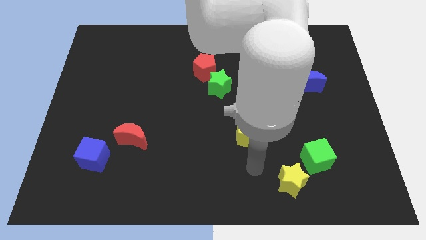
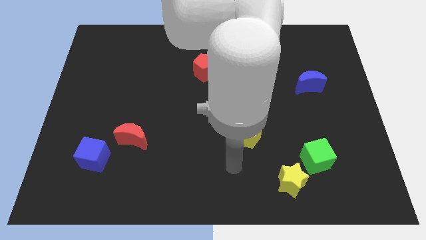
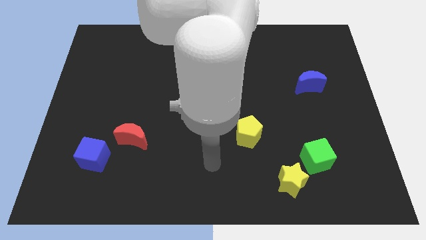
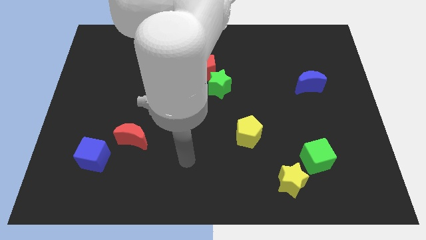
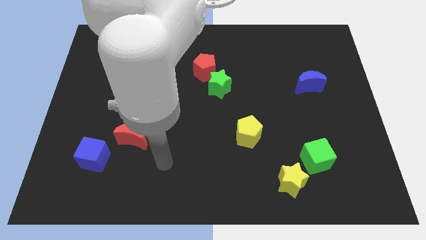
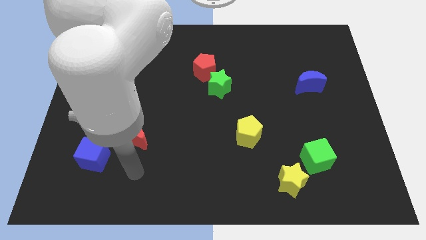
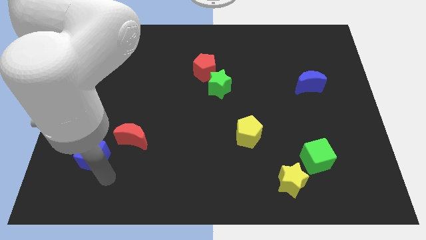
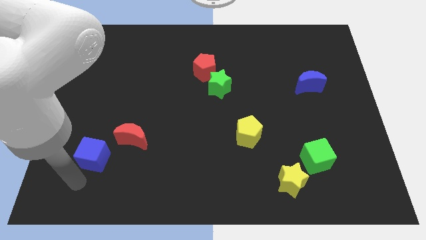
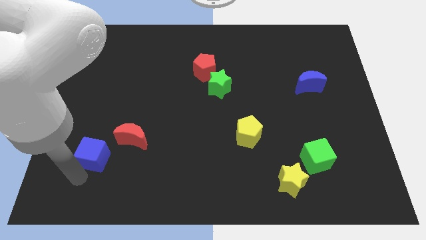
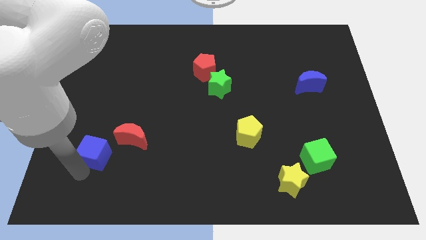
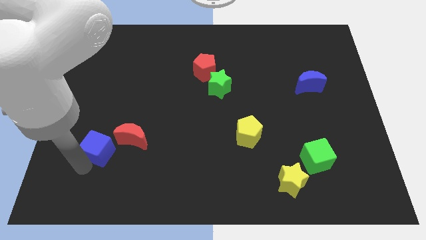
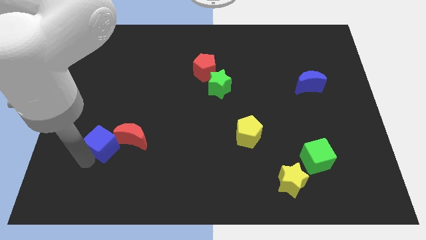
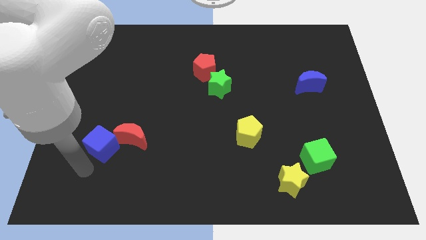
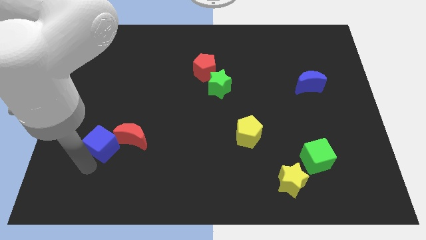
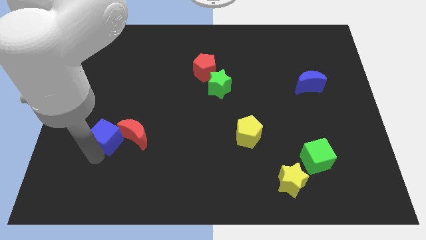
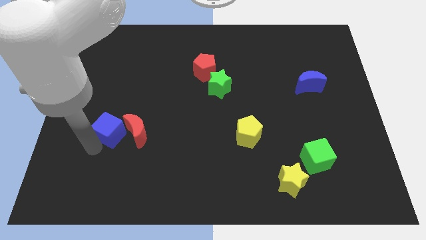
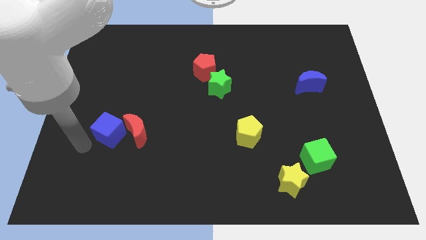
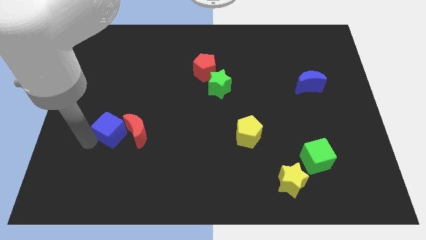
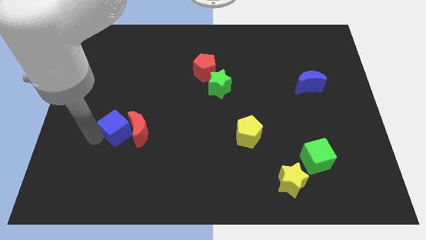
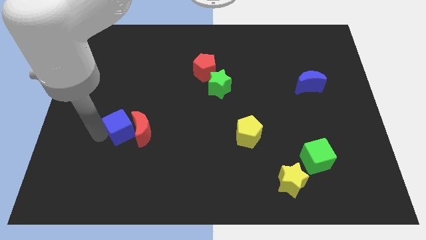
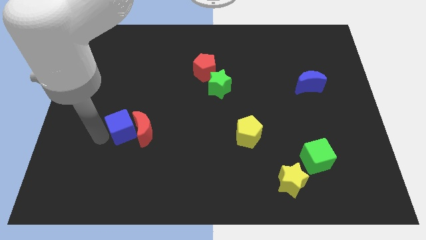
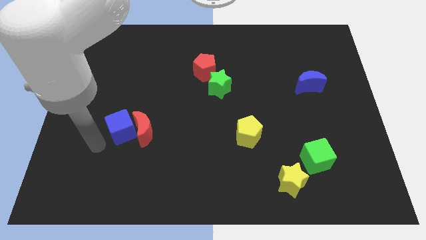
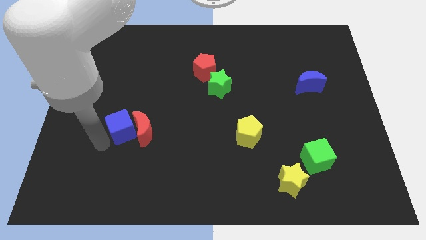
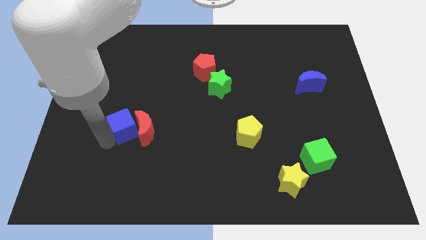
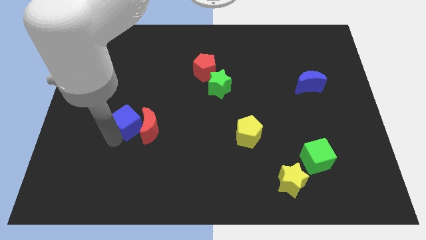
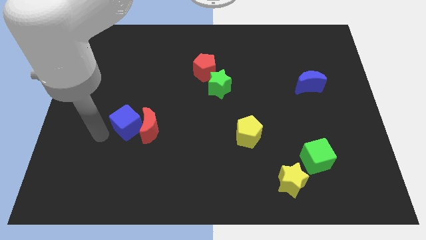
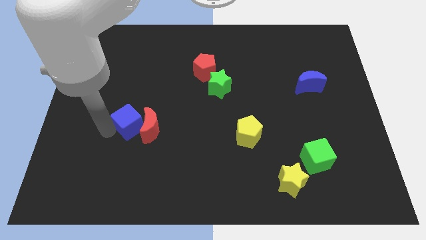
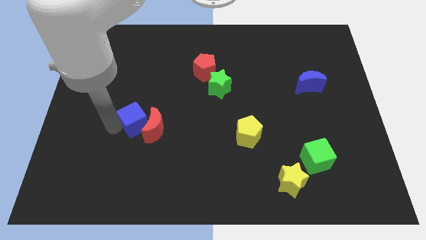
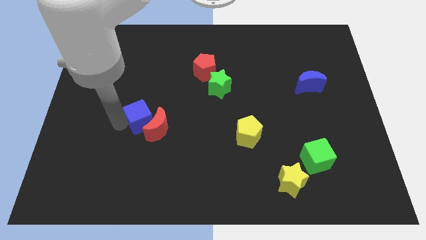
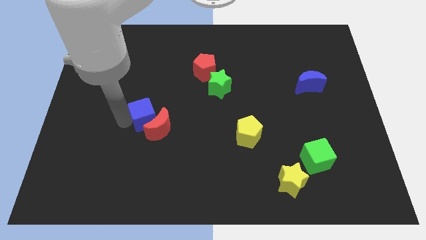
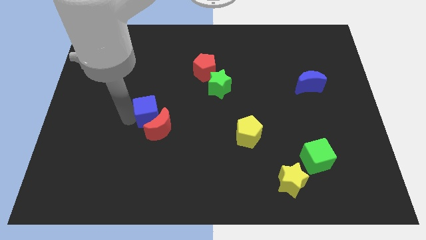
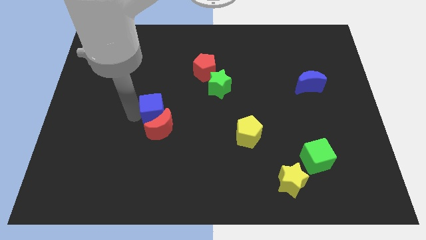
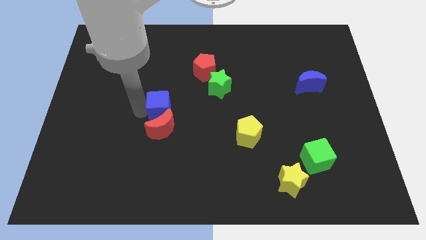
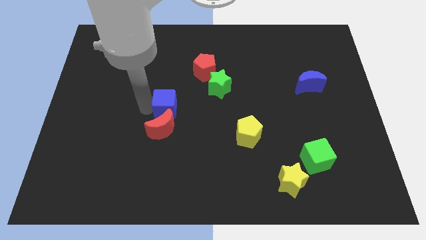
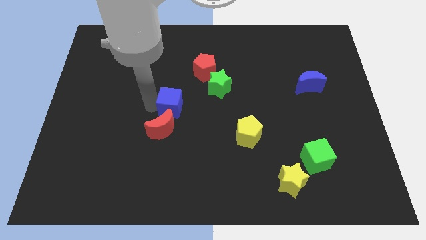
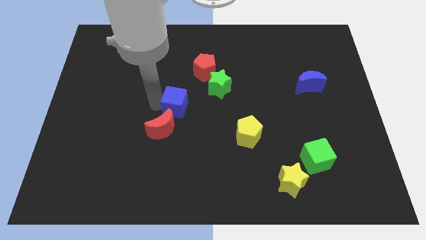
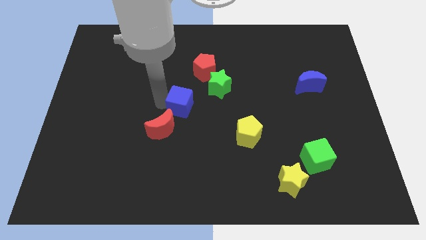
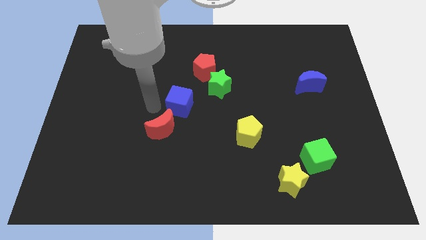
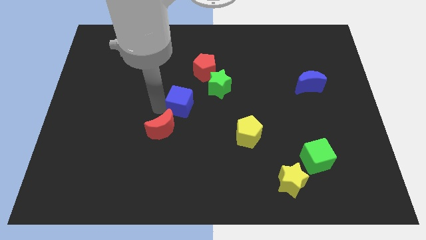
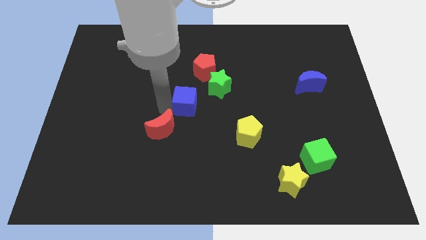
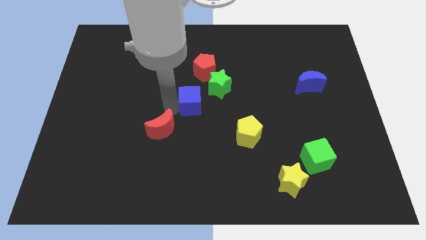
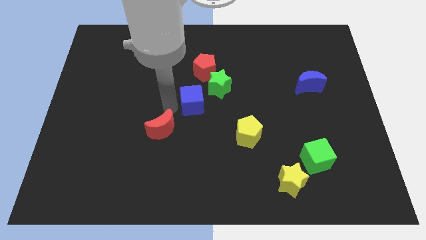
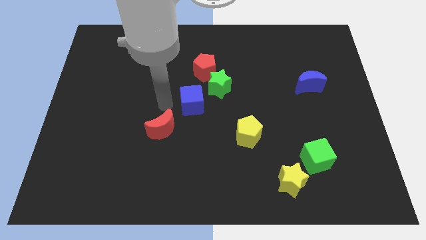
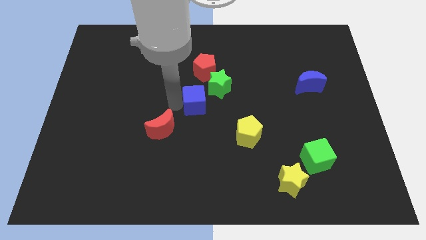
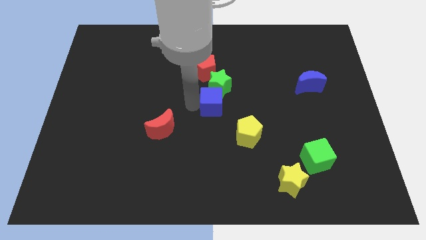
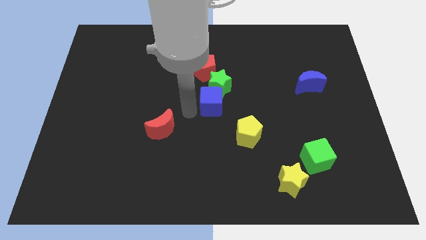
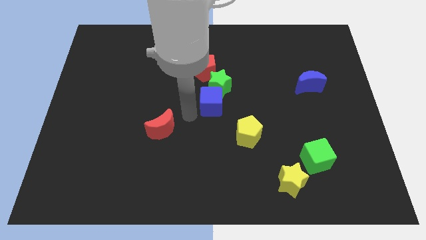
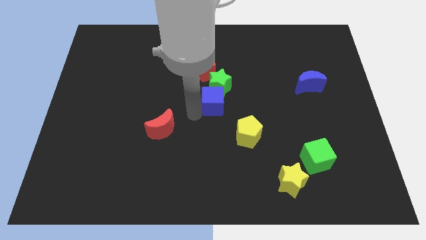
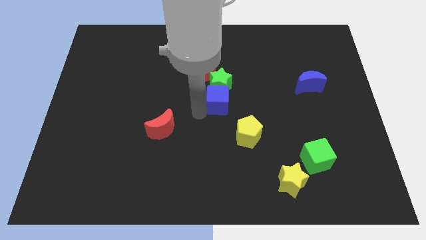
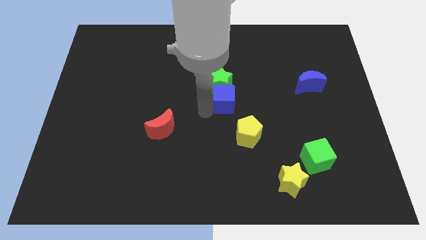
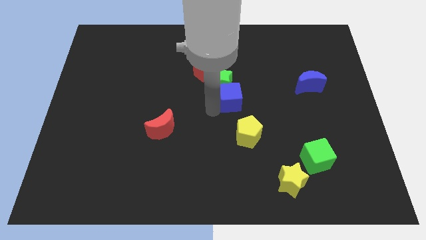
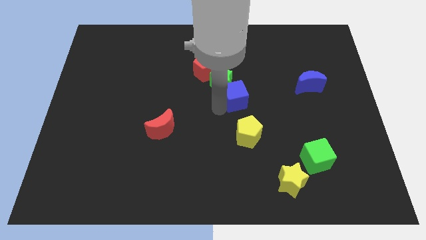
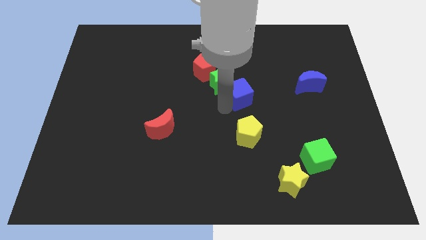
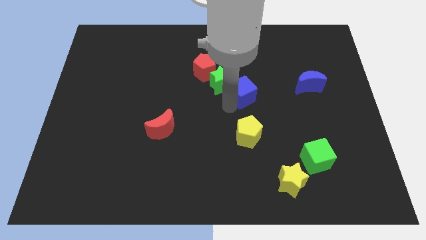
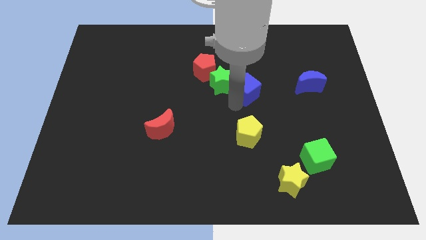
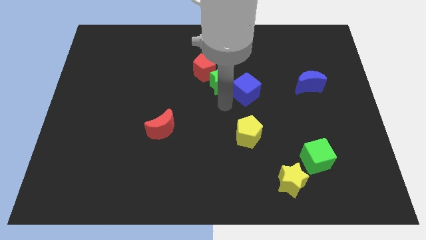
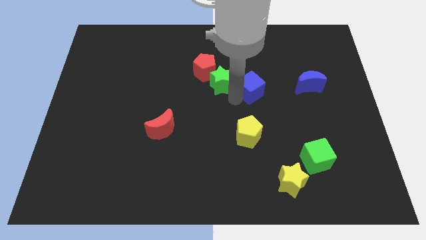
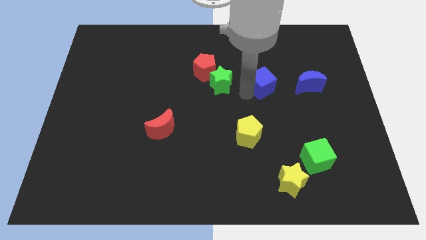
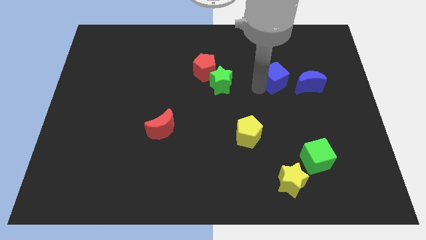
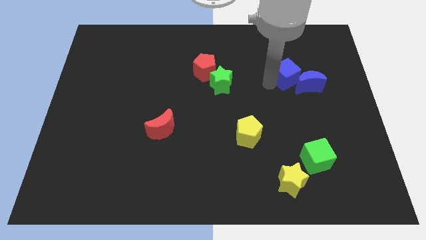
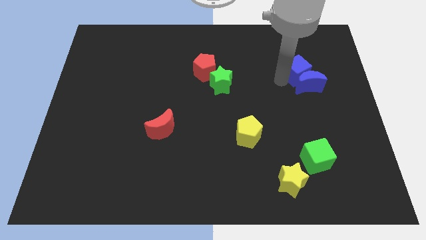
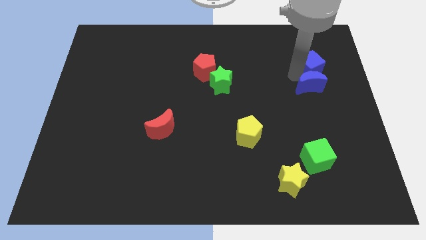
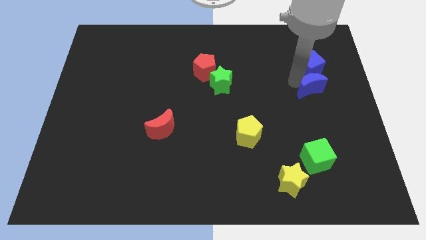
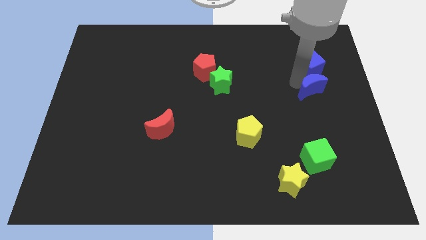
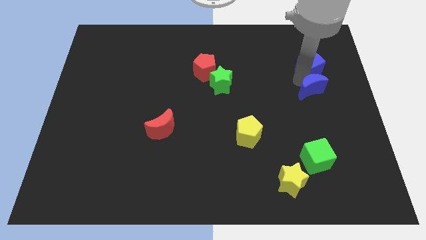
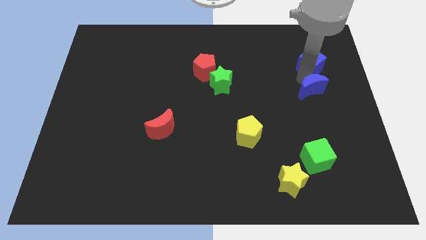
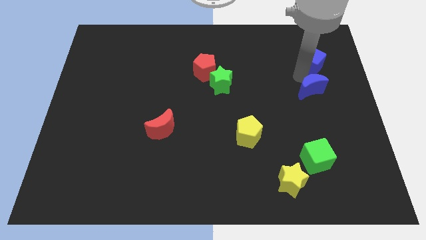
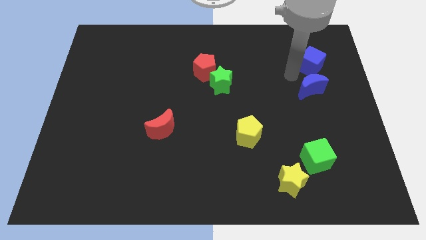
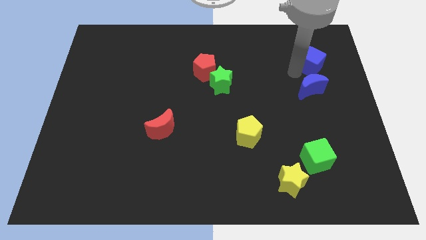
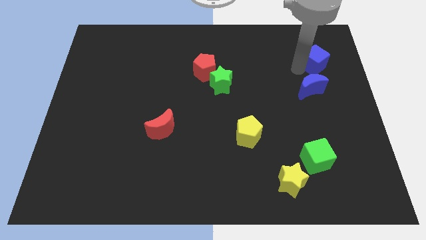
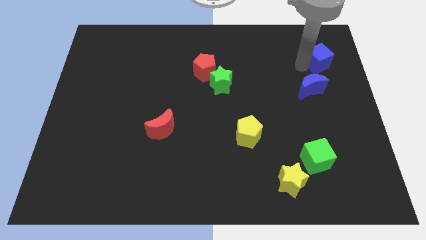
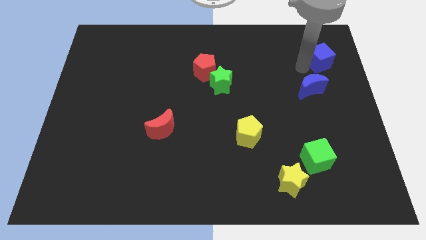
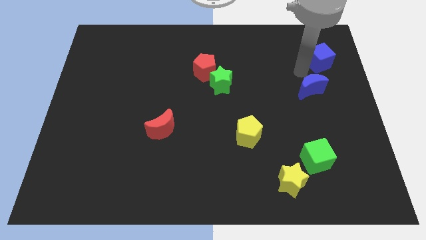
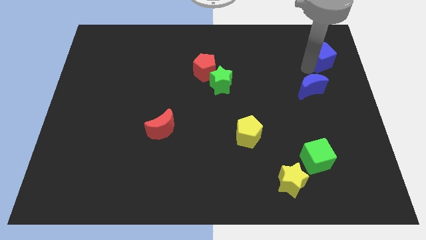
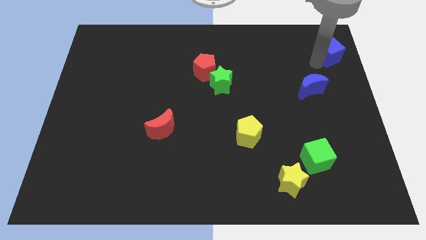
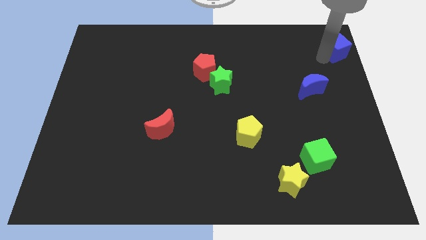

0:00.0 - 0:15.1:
slide the blue cube to the top right corner
